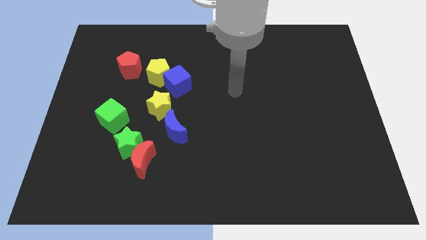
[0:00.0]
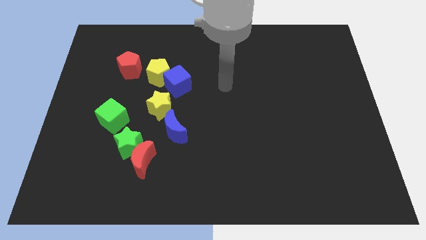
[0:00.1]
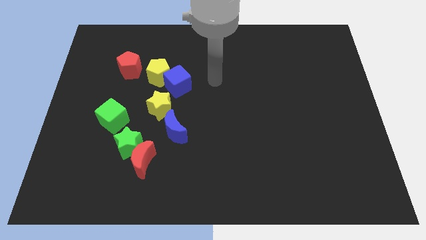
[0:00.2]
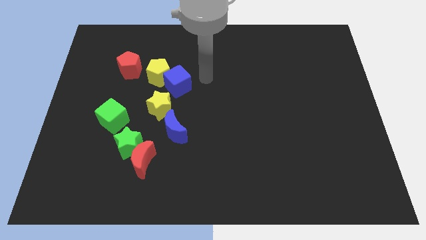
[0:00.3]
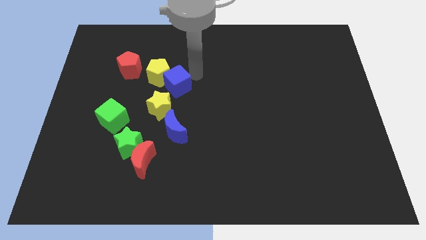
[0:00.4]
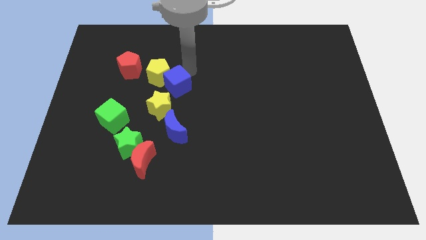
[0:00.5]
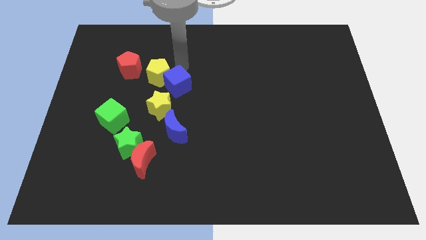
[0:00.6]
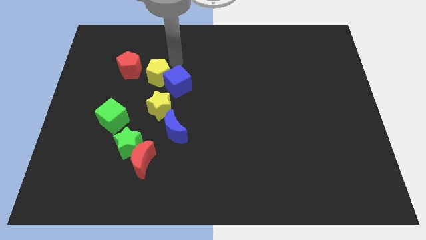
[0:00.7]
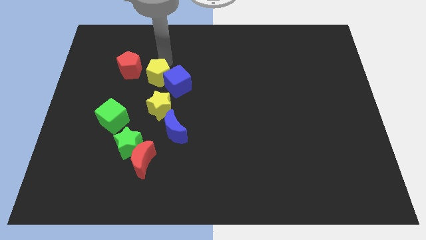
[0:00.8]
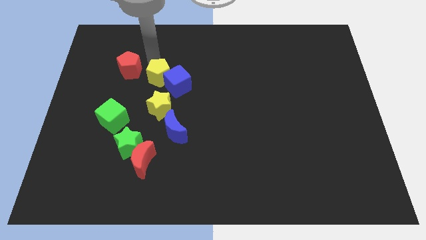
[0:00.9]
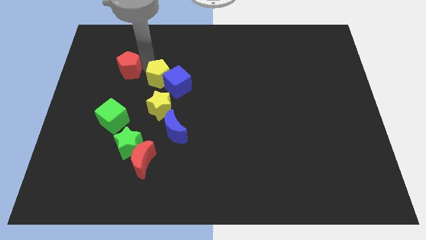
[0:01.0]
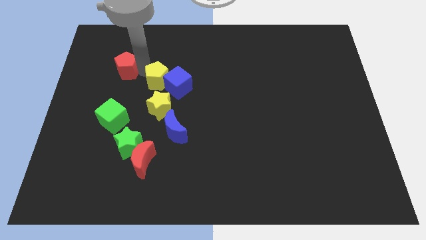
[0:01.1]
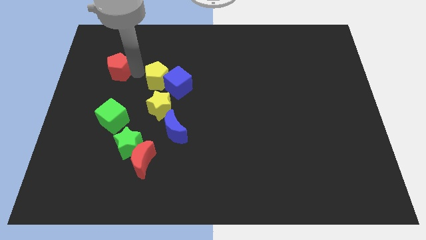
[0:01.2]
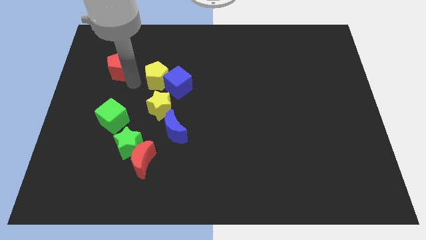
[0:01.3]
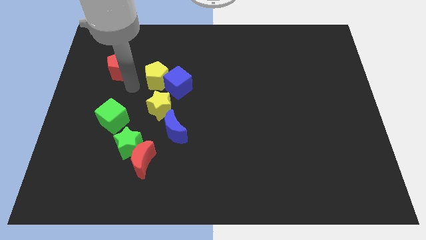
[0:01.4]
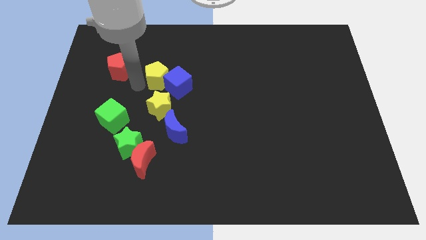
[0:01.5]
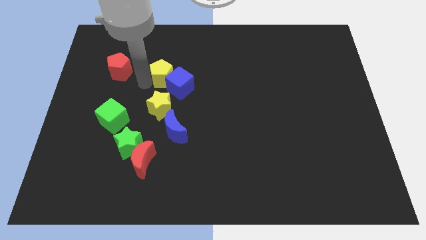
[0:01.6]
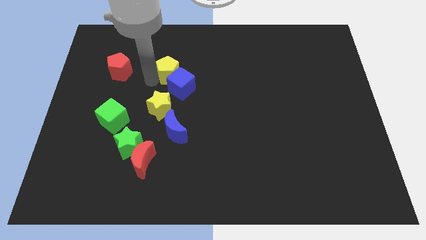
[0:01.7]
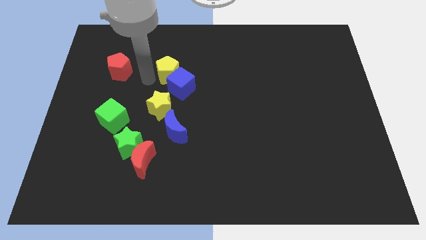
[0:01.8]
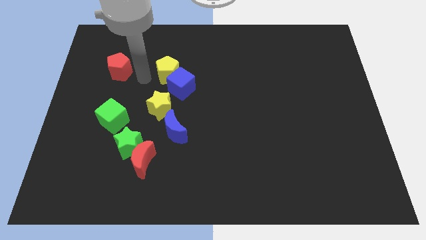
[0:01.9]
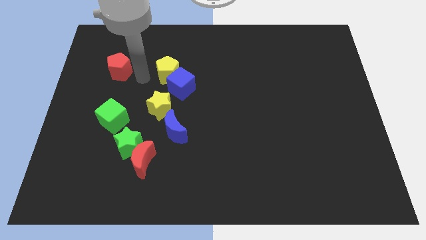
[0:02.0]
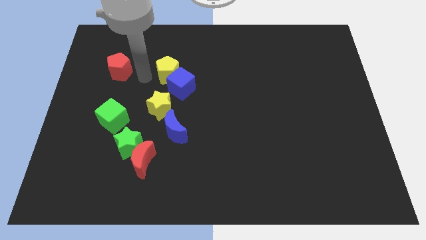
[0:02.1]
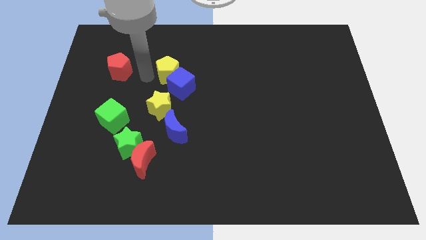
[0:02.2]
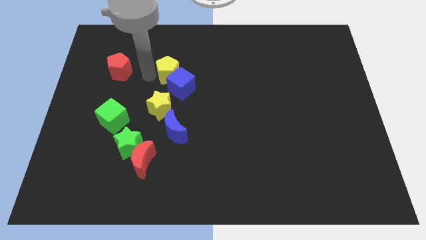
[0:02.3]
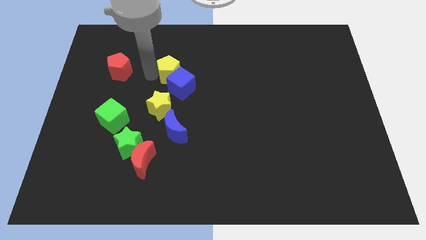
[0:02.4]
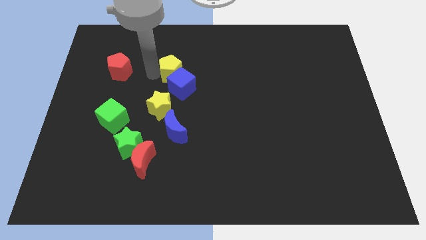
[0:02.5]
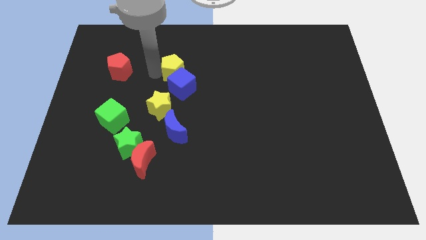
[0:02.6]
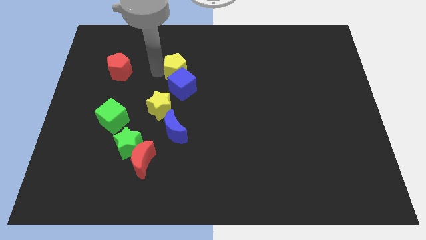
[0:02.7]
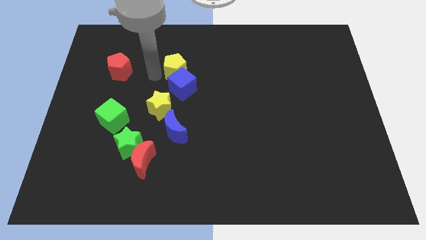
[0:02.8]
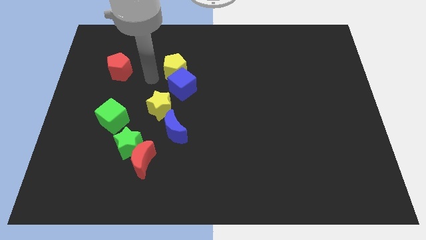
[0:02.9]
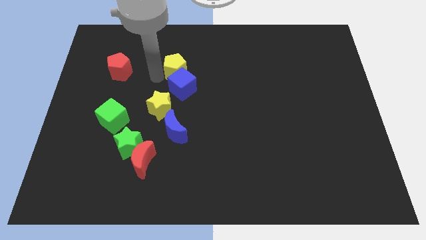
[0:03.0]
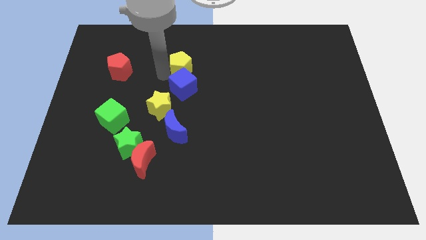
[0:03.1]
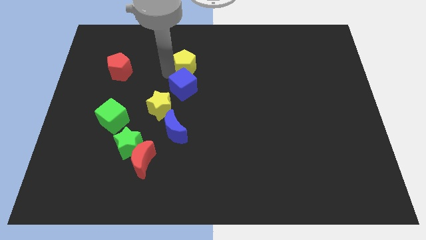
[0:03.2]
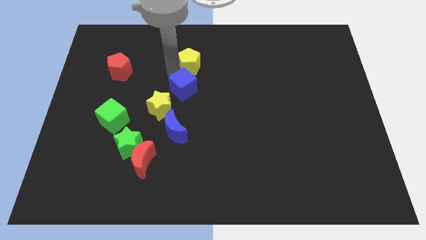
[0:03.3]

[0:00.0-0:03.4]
move the yellow pentagon away from the blue cube and red pentagon

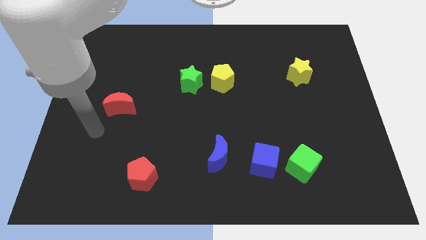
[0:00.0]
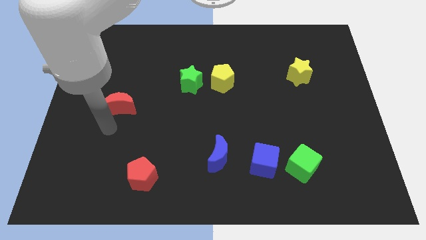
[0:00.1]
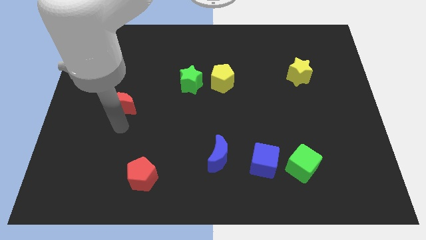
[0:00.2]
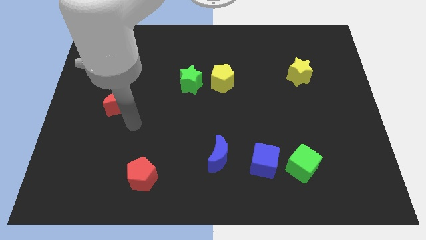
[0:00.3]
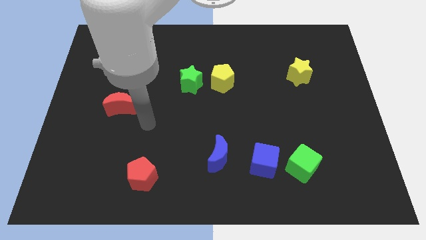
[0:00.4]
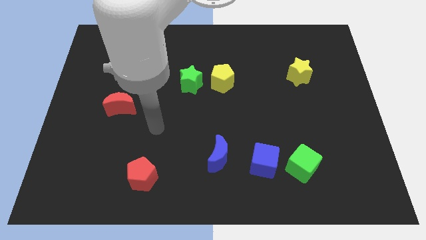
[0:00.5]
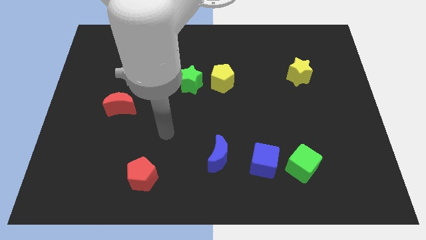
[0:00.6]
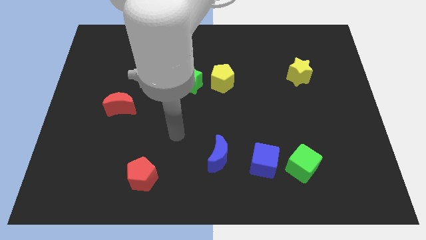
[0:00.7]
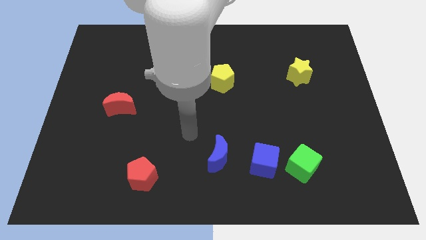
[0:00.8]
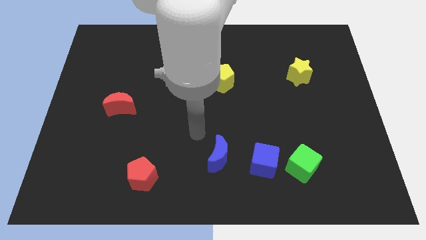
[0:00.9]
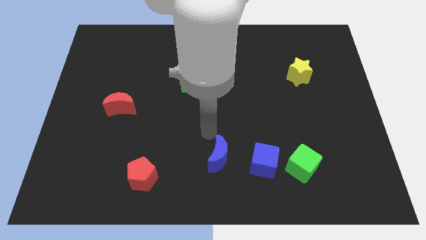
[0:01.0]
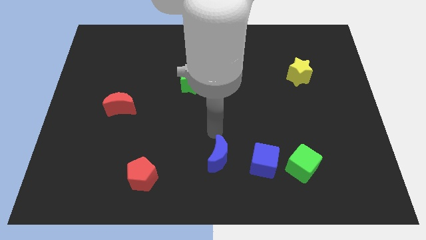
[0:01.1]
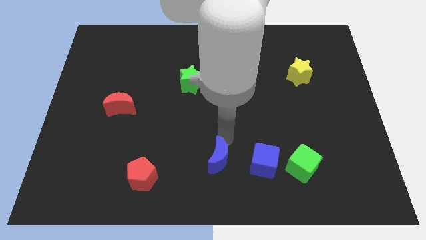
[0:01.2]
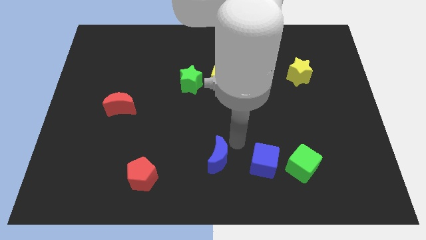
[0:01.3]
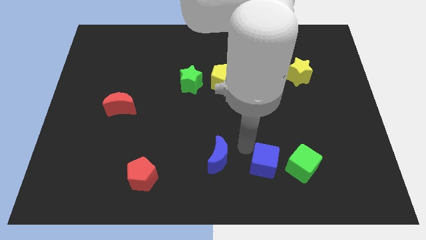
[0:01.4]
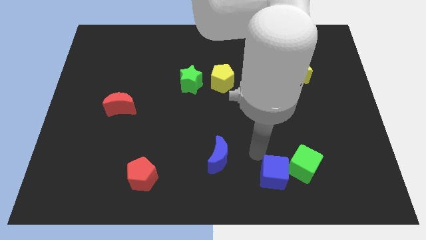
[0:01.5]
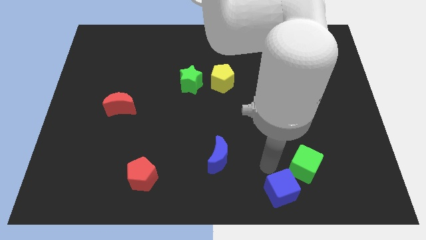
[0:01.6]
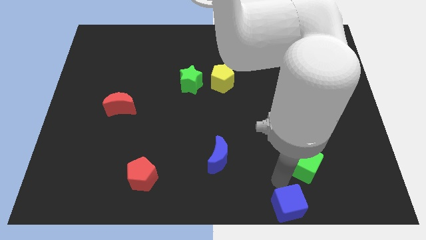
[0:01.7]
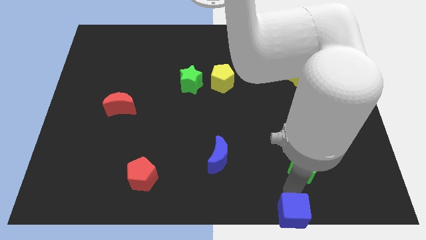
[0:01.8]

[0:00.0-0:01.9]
pull the green cube apart from the blue cube

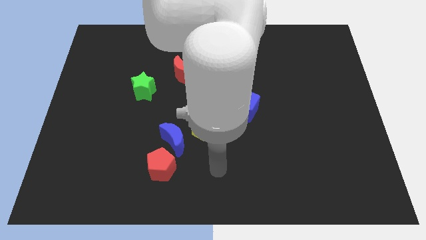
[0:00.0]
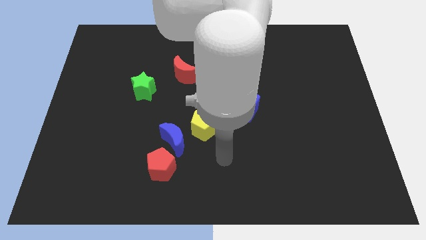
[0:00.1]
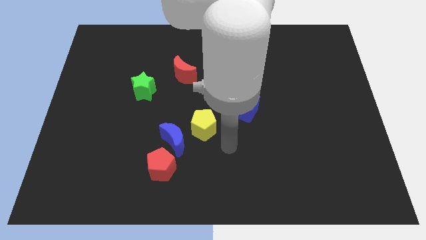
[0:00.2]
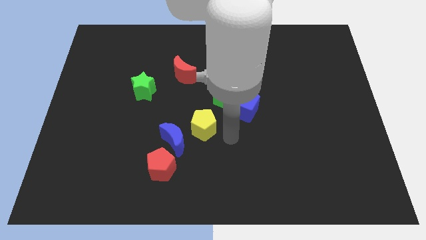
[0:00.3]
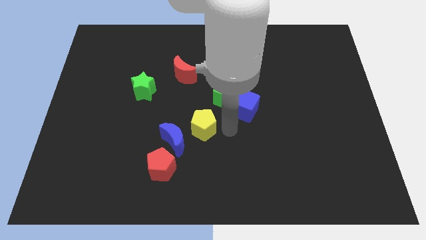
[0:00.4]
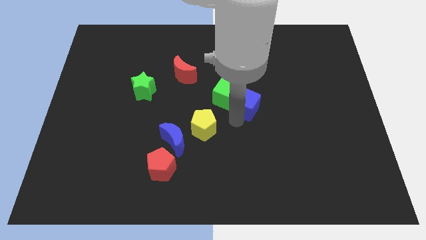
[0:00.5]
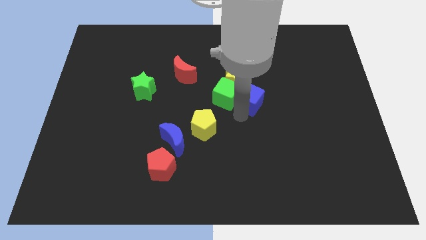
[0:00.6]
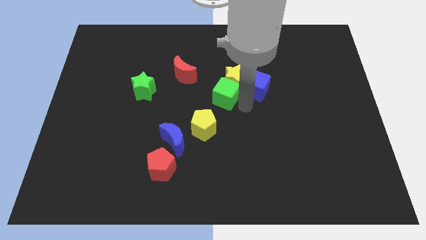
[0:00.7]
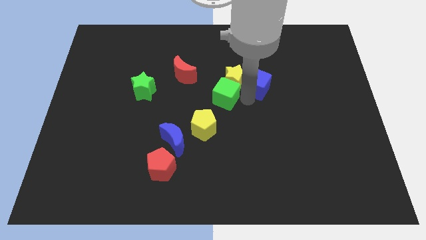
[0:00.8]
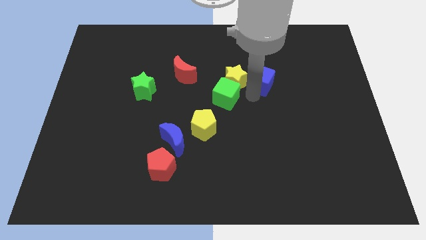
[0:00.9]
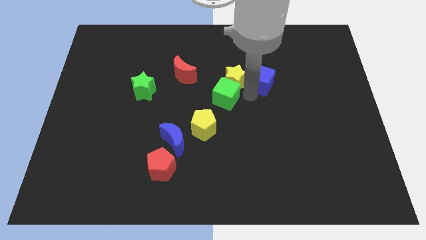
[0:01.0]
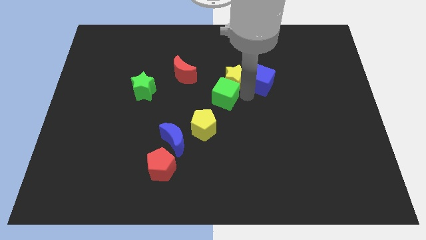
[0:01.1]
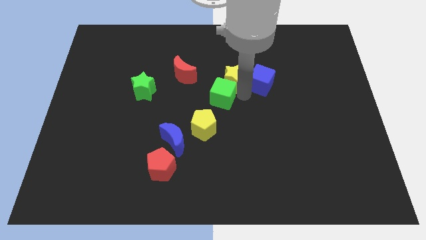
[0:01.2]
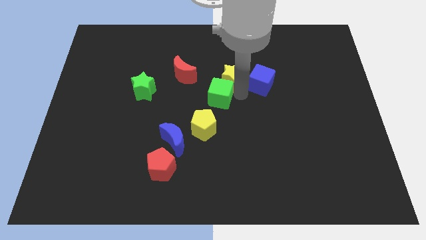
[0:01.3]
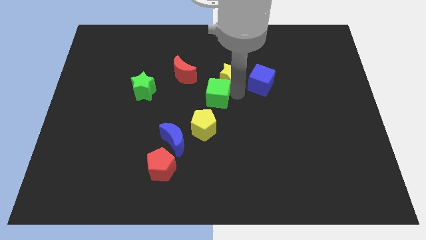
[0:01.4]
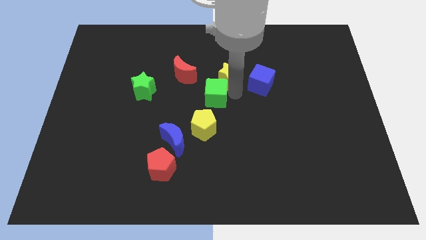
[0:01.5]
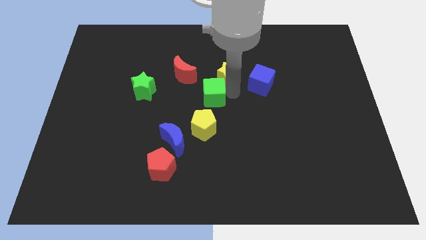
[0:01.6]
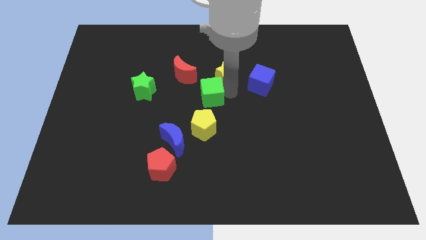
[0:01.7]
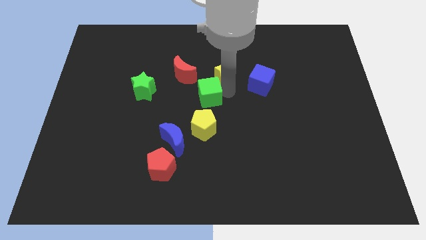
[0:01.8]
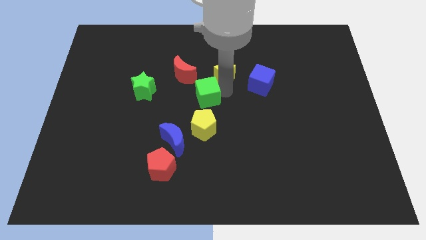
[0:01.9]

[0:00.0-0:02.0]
separate the green cube from the yellow star and blue cube

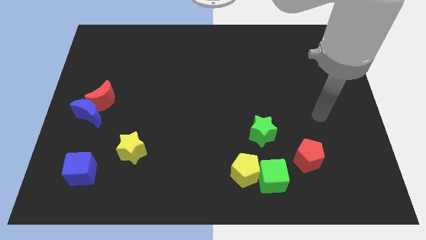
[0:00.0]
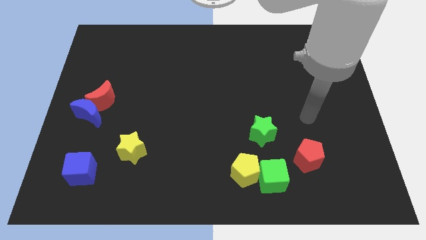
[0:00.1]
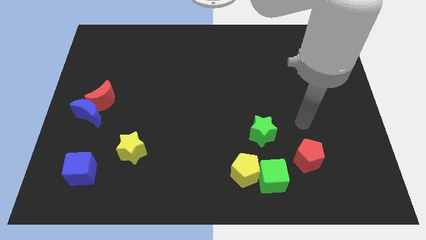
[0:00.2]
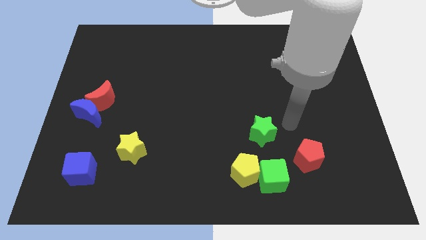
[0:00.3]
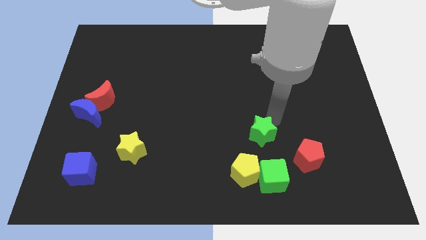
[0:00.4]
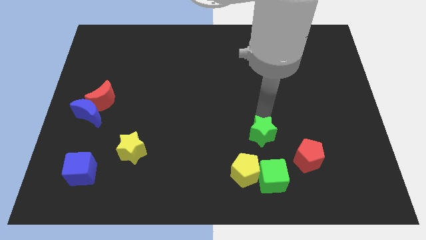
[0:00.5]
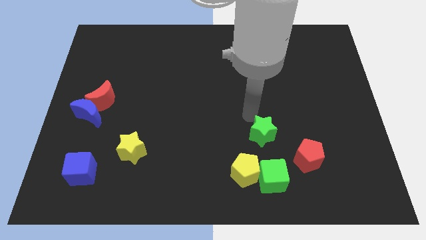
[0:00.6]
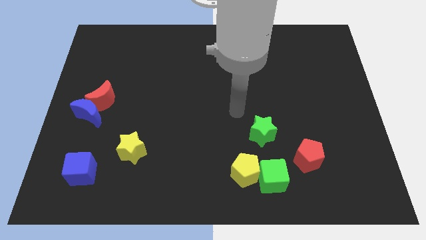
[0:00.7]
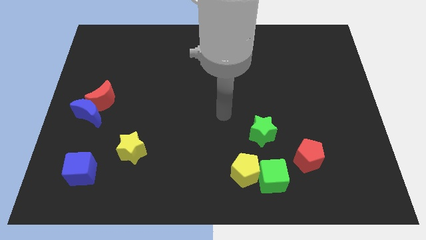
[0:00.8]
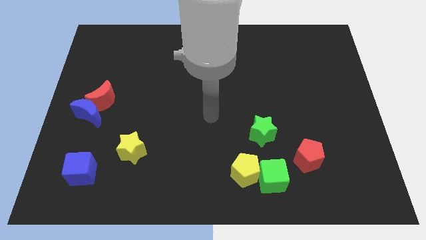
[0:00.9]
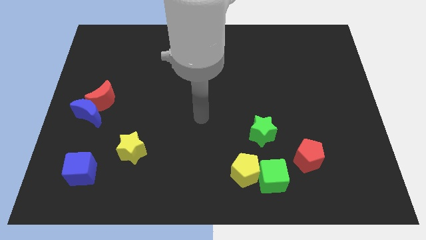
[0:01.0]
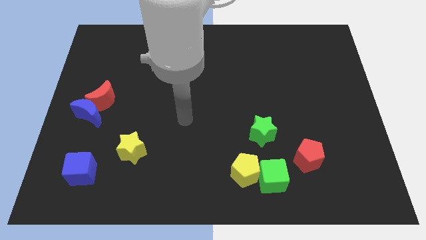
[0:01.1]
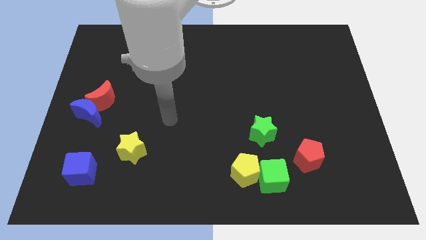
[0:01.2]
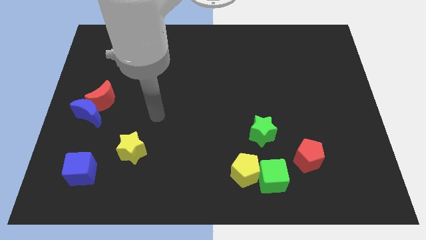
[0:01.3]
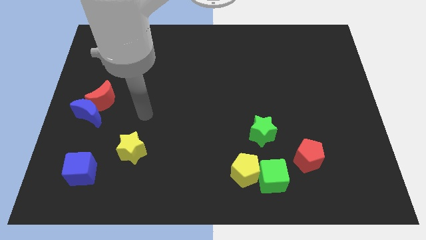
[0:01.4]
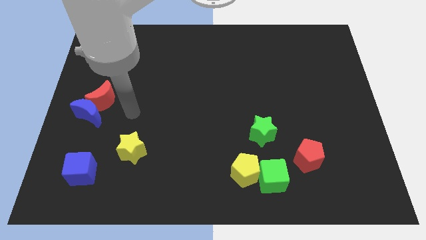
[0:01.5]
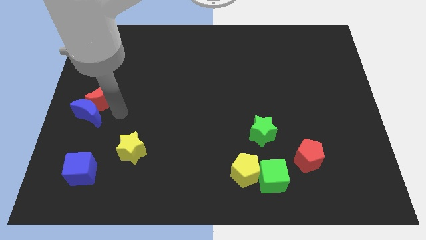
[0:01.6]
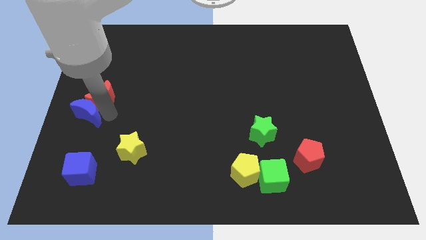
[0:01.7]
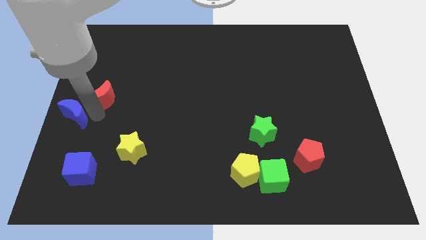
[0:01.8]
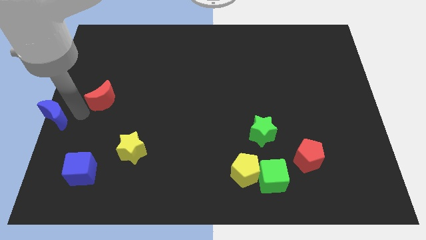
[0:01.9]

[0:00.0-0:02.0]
move the red moon away from the blue moon
